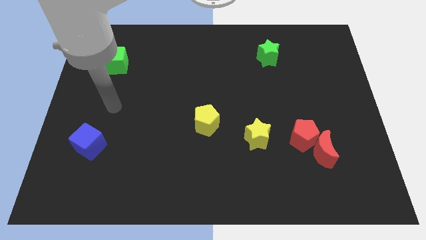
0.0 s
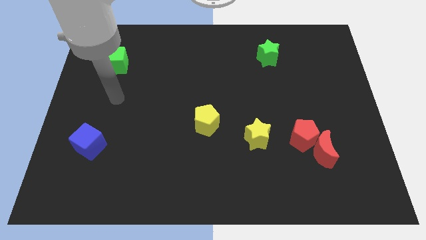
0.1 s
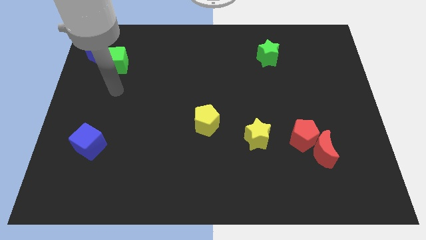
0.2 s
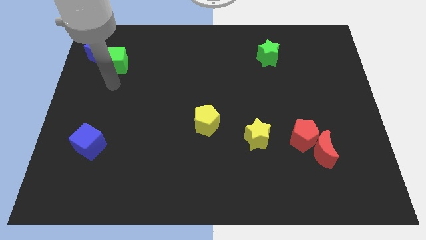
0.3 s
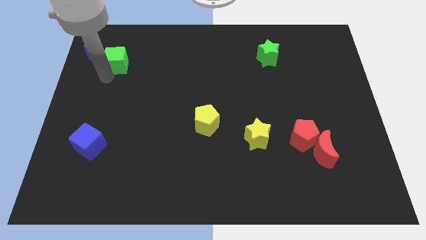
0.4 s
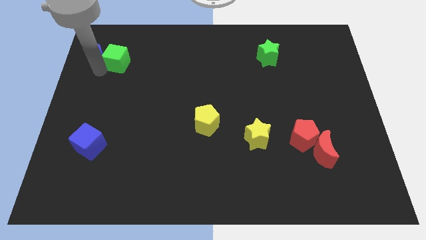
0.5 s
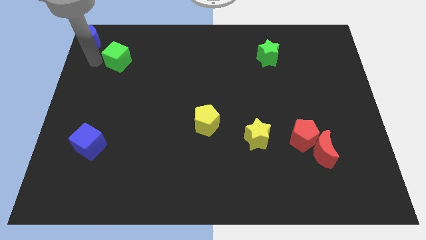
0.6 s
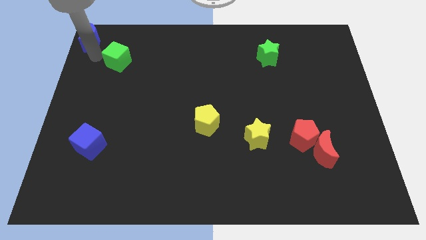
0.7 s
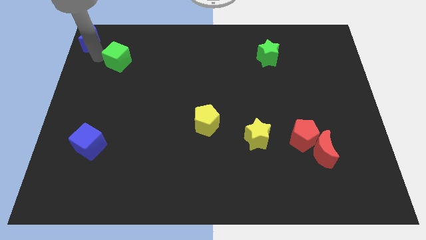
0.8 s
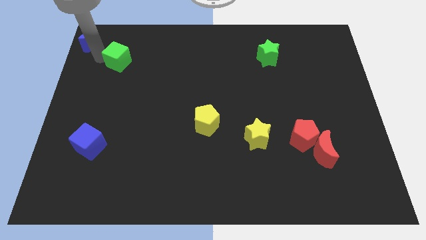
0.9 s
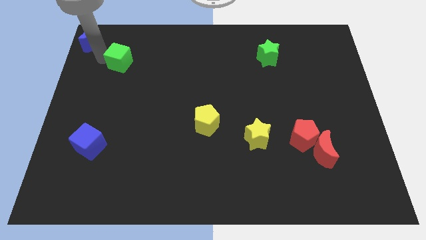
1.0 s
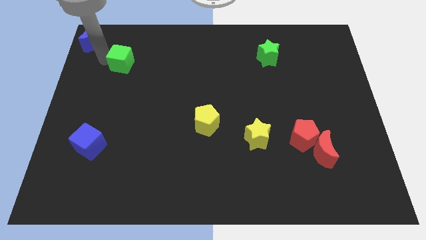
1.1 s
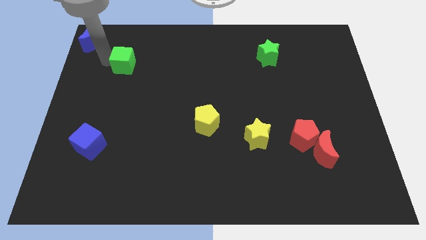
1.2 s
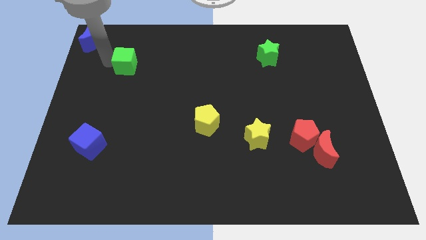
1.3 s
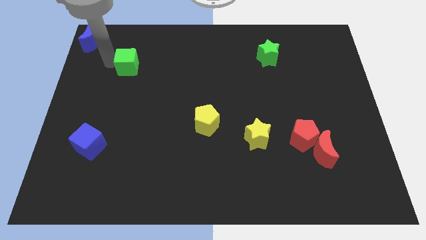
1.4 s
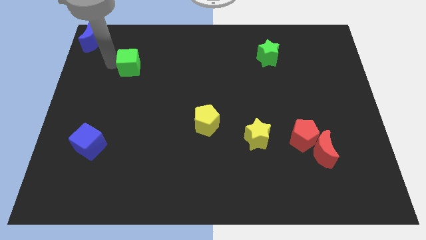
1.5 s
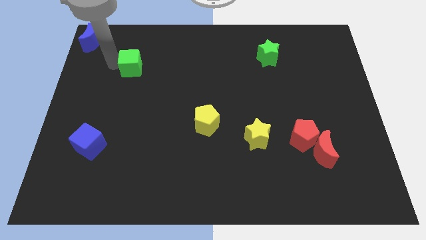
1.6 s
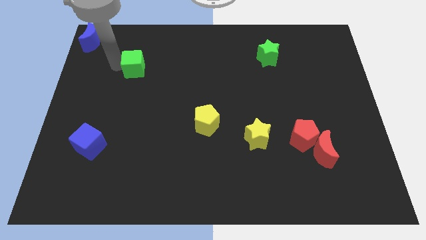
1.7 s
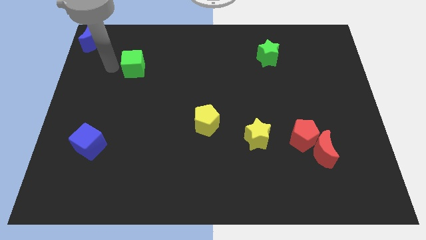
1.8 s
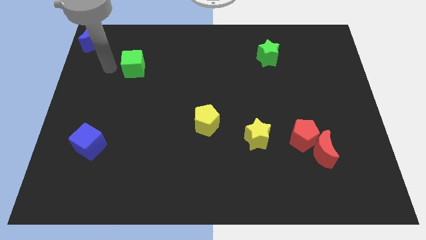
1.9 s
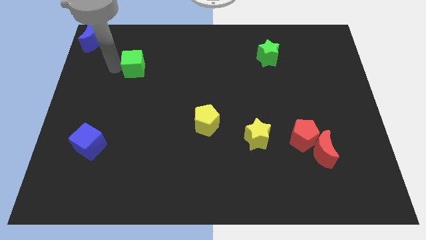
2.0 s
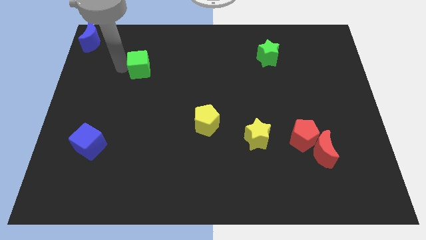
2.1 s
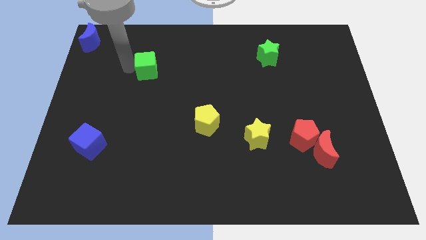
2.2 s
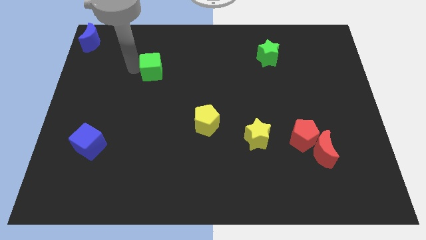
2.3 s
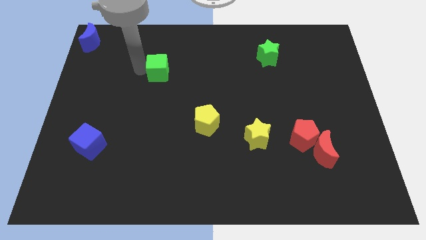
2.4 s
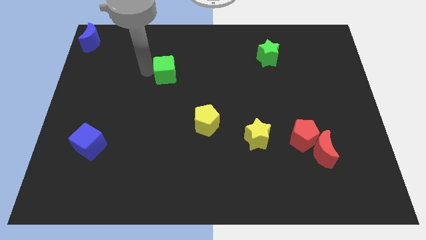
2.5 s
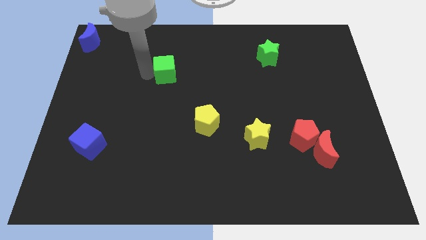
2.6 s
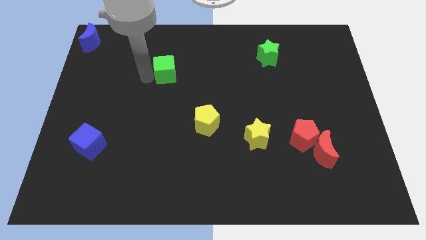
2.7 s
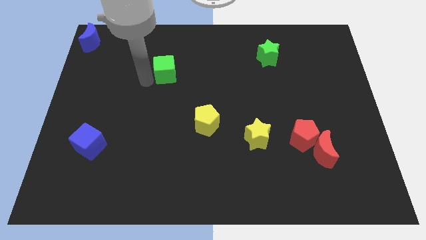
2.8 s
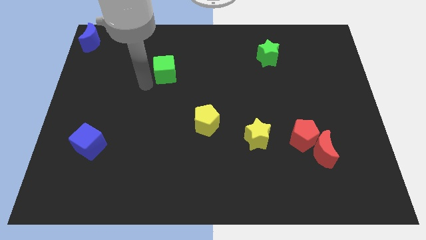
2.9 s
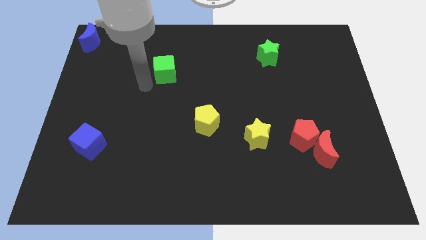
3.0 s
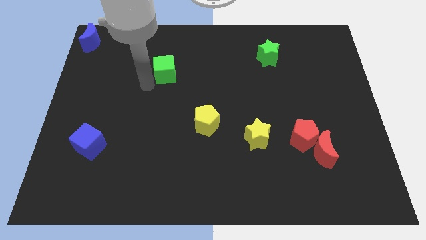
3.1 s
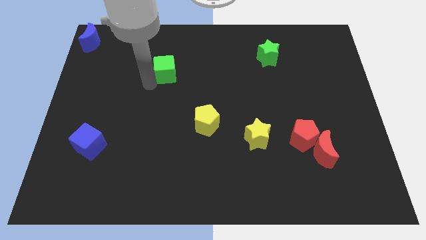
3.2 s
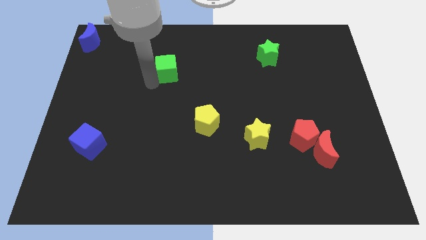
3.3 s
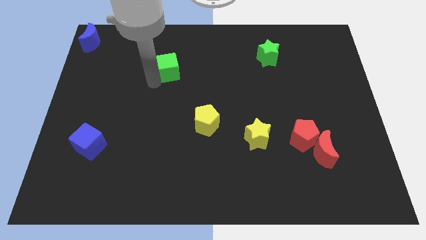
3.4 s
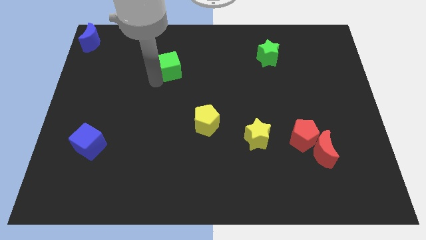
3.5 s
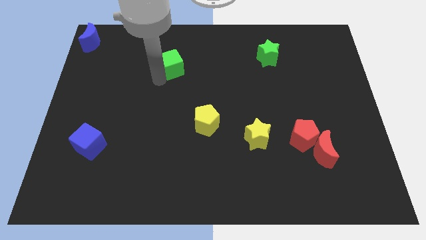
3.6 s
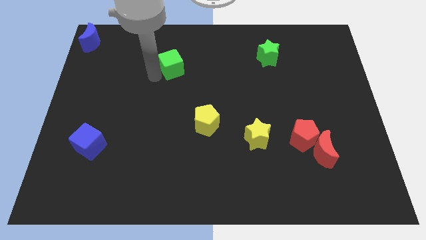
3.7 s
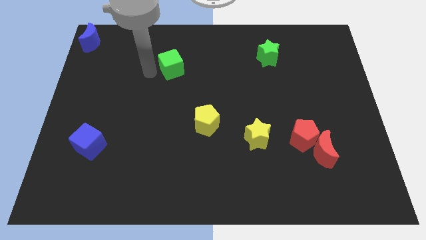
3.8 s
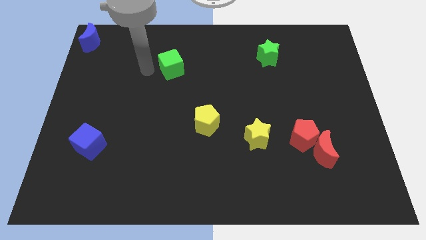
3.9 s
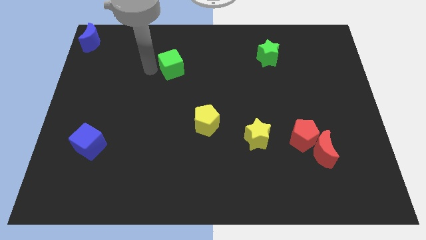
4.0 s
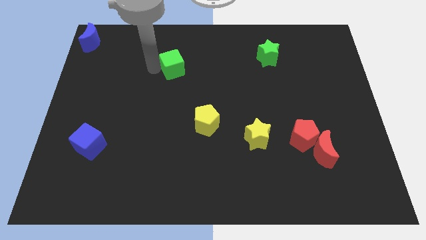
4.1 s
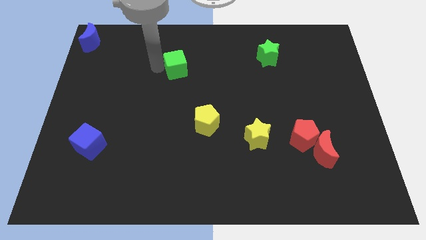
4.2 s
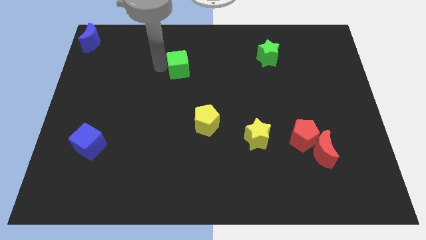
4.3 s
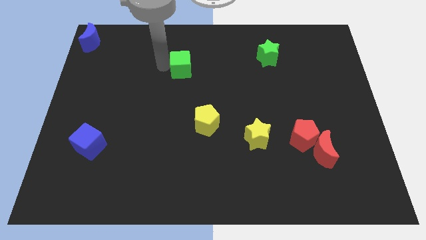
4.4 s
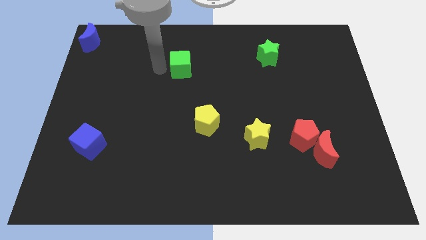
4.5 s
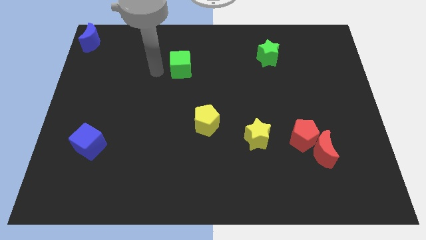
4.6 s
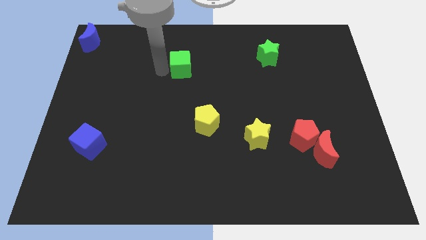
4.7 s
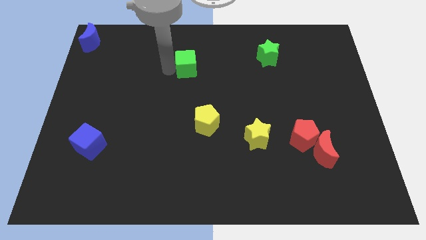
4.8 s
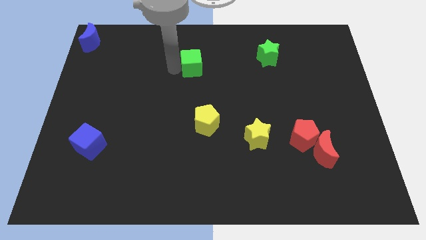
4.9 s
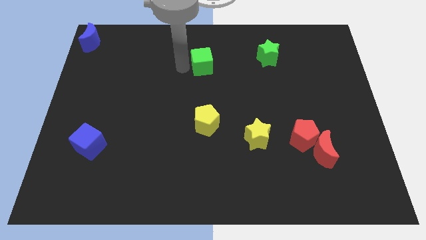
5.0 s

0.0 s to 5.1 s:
slide the green cube right

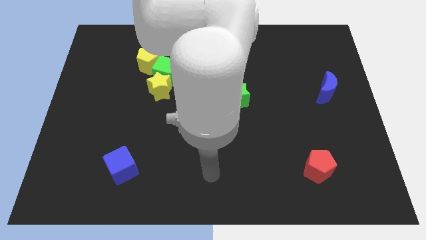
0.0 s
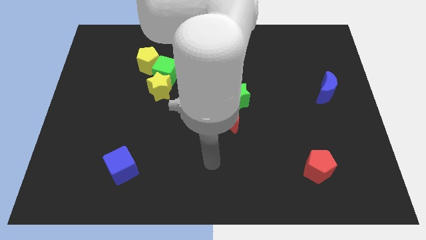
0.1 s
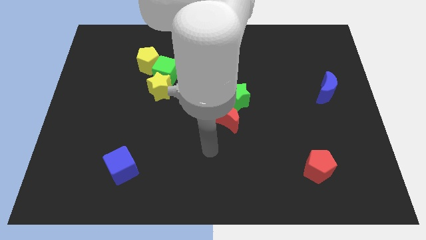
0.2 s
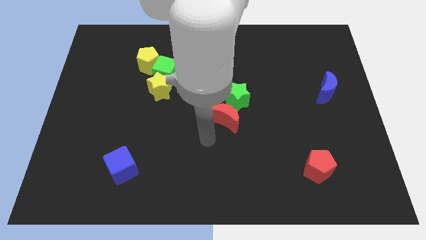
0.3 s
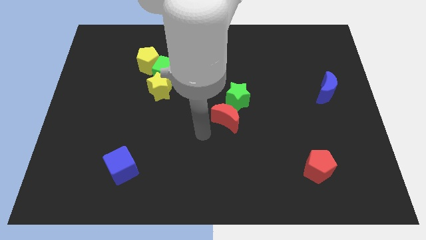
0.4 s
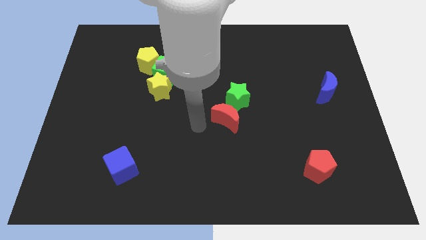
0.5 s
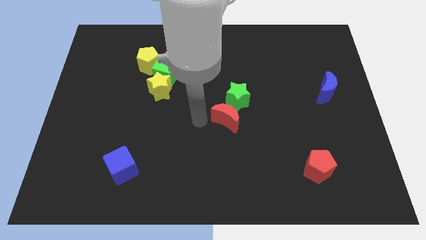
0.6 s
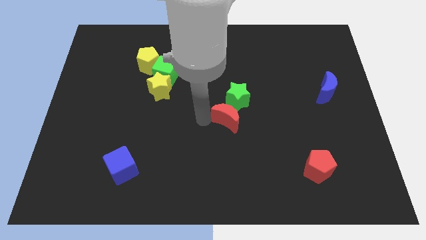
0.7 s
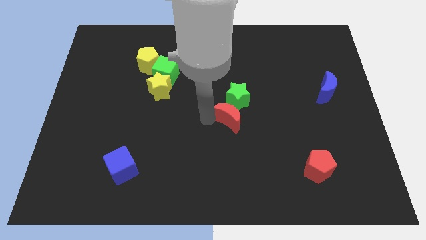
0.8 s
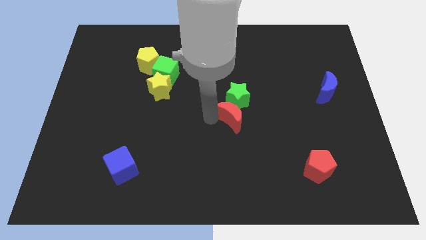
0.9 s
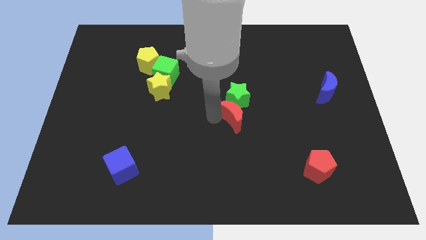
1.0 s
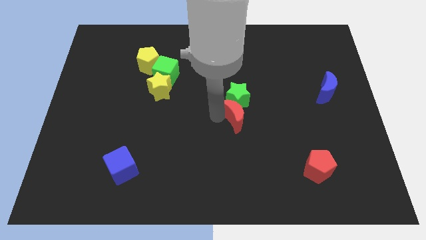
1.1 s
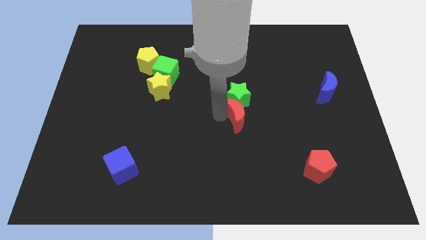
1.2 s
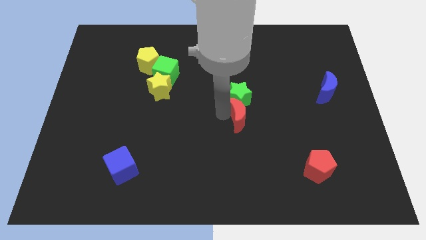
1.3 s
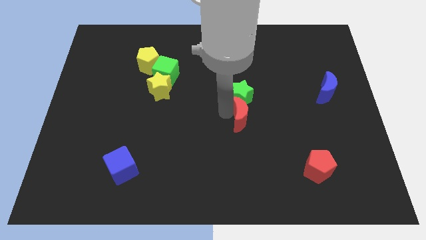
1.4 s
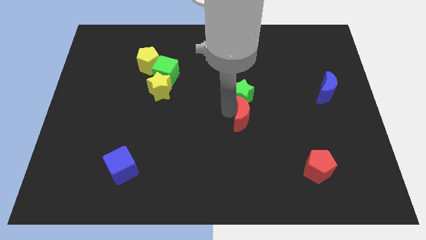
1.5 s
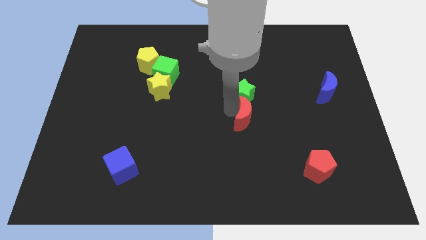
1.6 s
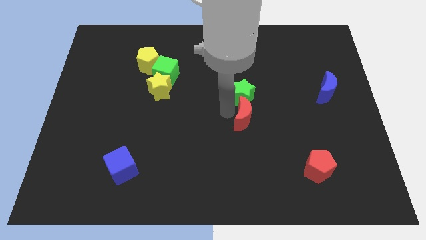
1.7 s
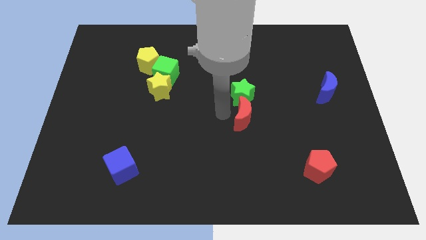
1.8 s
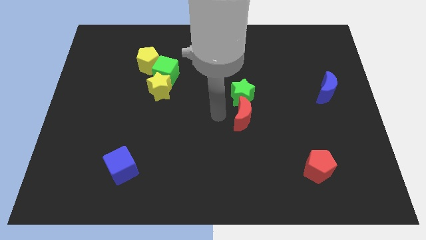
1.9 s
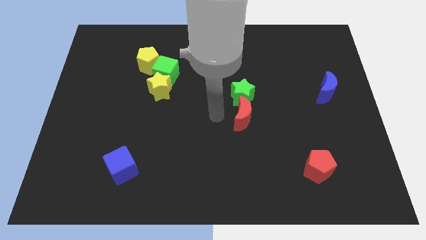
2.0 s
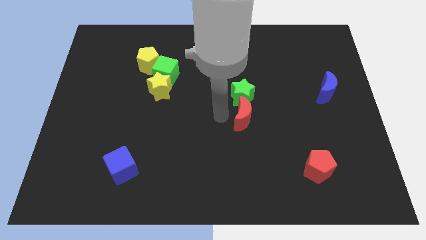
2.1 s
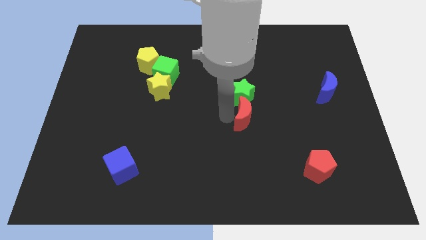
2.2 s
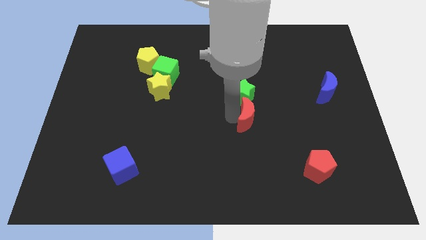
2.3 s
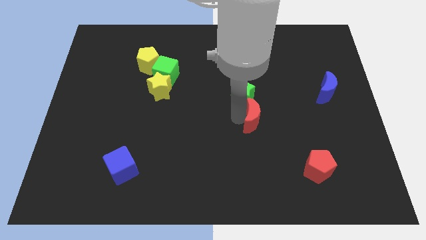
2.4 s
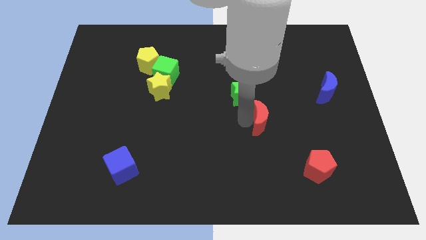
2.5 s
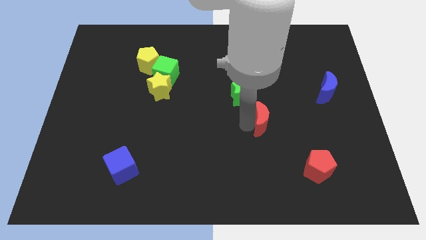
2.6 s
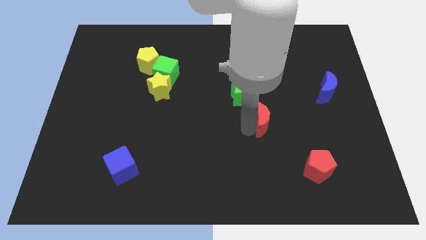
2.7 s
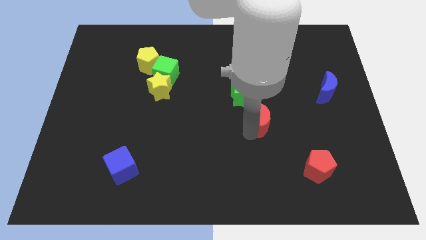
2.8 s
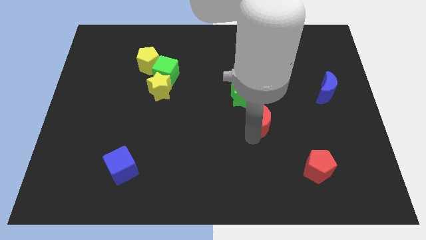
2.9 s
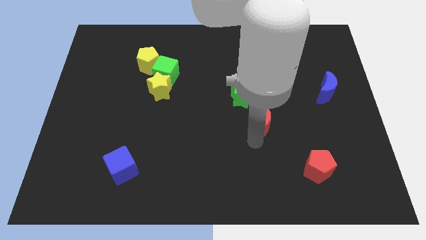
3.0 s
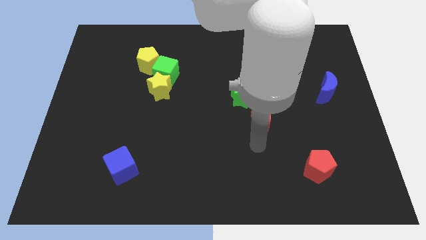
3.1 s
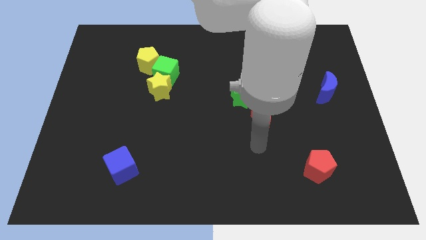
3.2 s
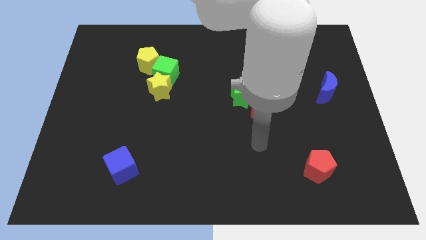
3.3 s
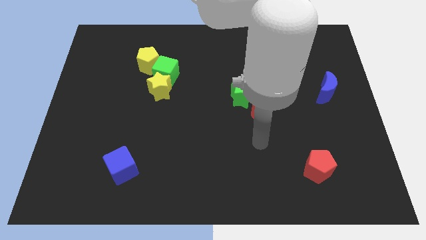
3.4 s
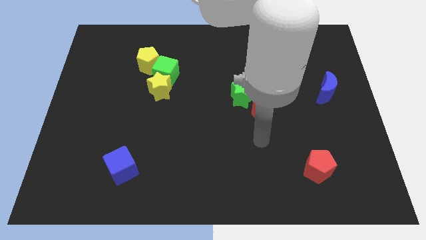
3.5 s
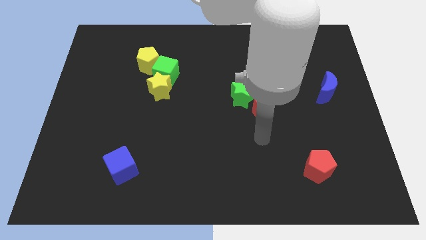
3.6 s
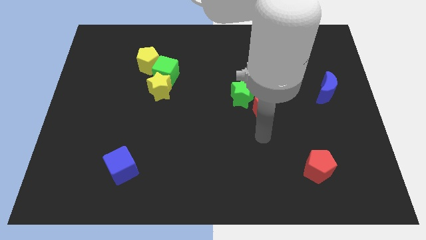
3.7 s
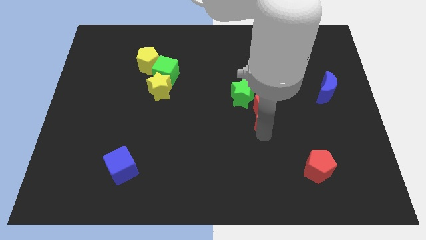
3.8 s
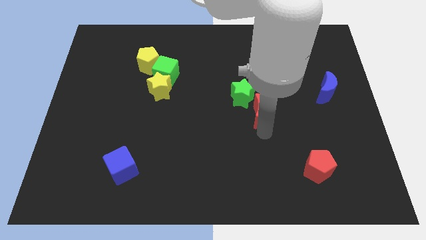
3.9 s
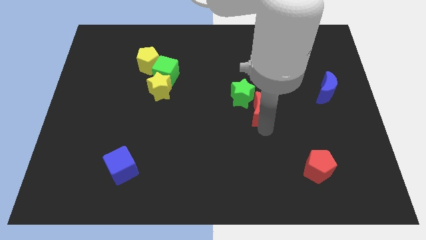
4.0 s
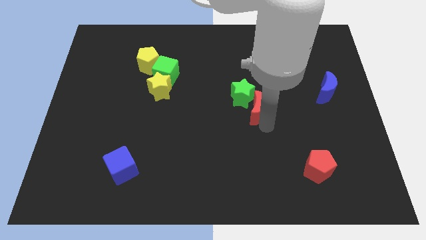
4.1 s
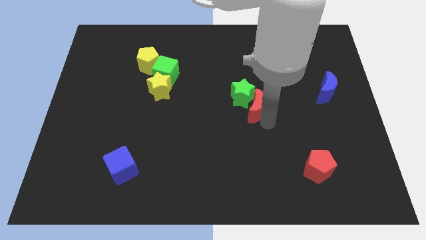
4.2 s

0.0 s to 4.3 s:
slide the red moon slightly up and to the right diagonally
